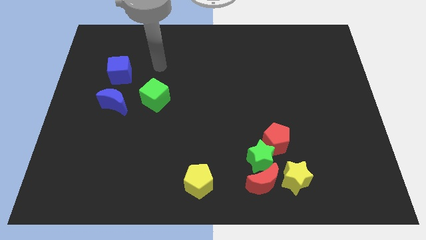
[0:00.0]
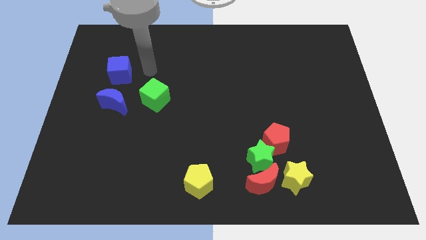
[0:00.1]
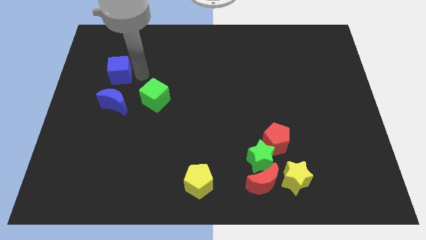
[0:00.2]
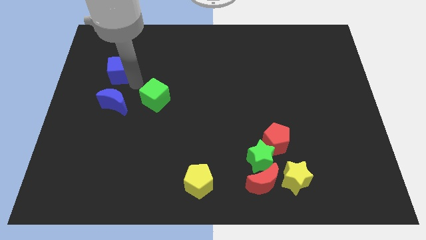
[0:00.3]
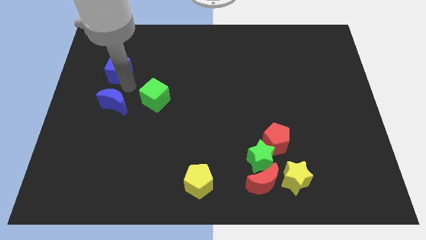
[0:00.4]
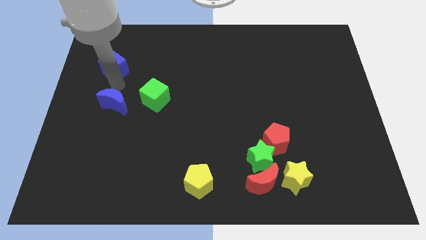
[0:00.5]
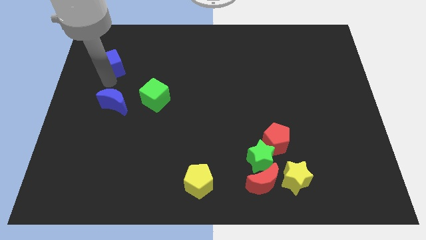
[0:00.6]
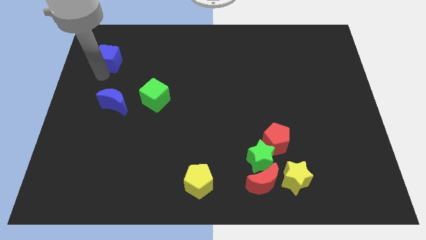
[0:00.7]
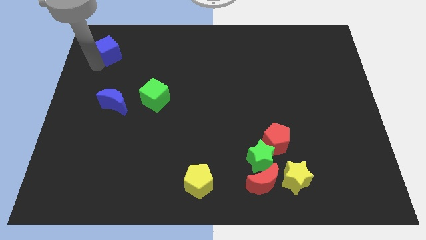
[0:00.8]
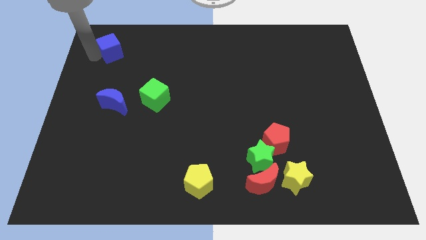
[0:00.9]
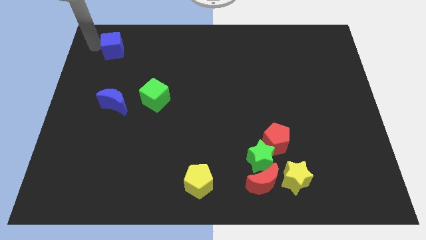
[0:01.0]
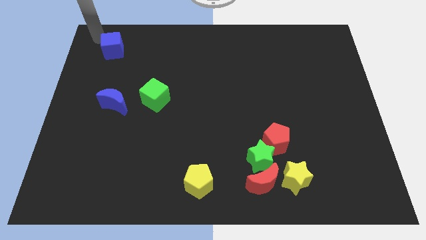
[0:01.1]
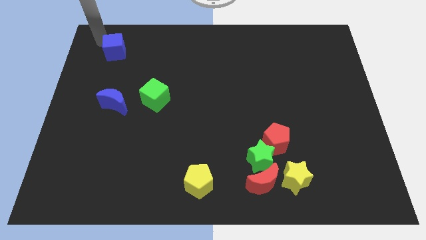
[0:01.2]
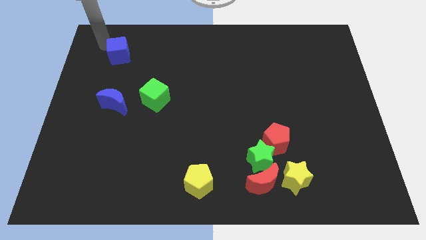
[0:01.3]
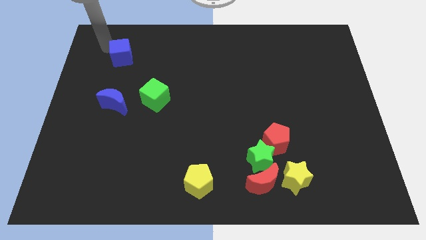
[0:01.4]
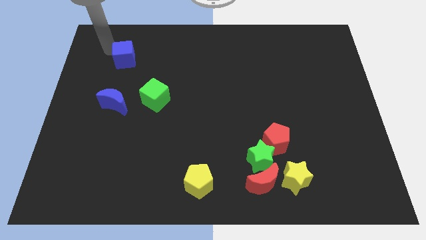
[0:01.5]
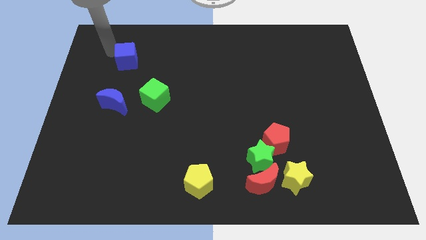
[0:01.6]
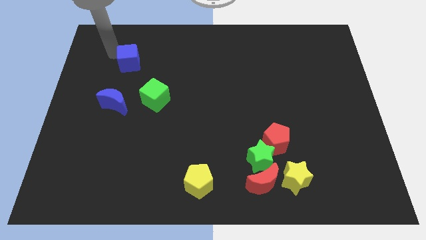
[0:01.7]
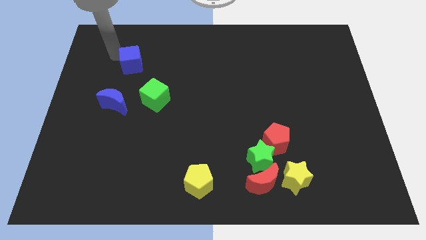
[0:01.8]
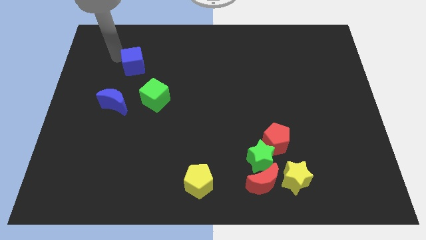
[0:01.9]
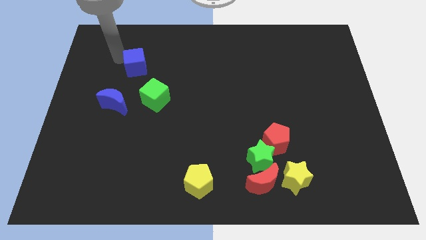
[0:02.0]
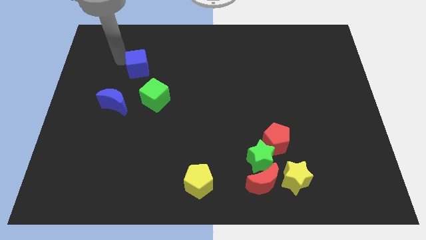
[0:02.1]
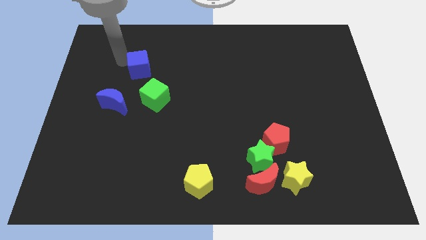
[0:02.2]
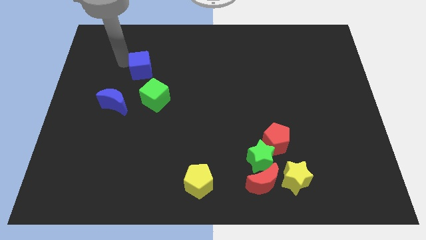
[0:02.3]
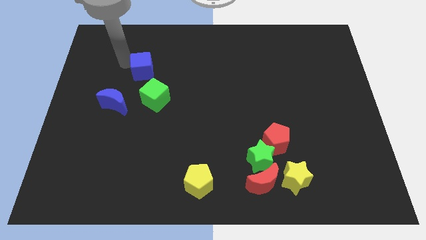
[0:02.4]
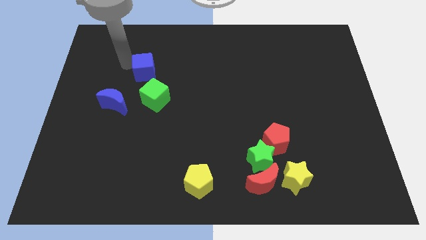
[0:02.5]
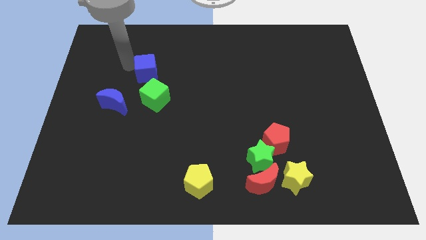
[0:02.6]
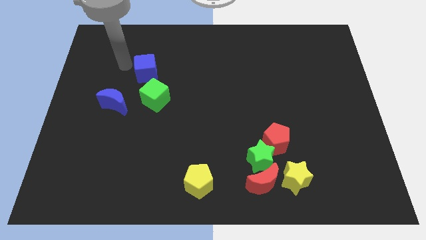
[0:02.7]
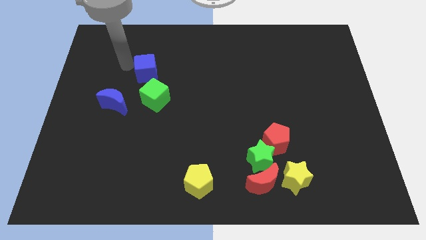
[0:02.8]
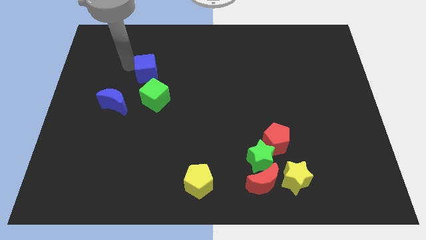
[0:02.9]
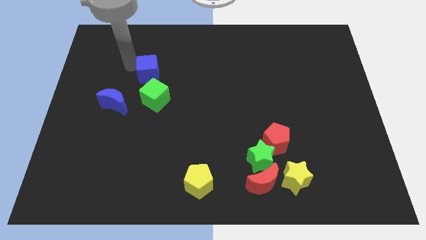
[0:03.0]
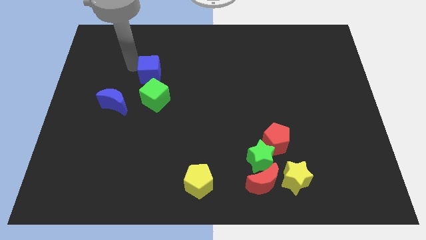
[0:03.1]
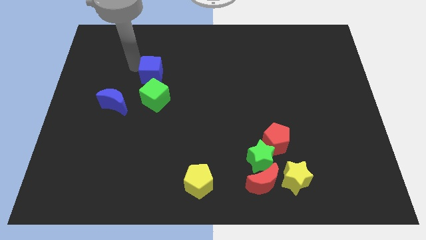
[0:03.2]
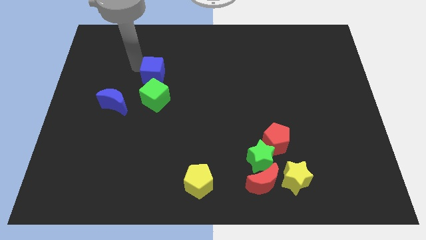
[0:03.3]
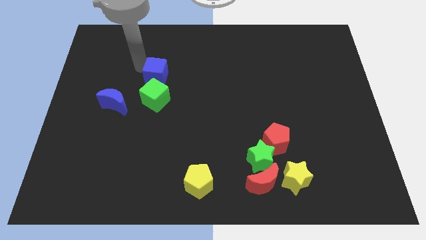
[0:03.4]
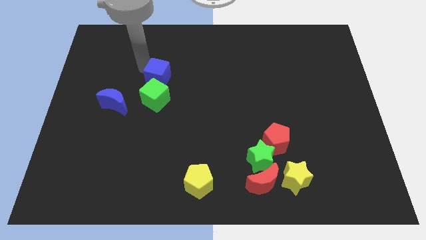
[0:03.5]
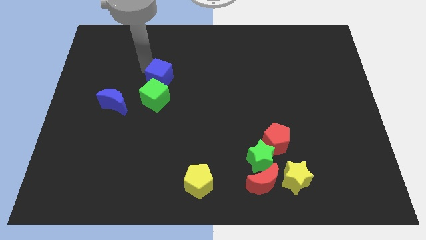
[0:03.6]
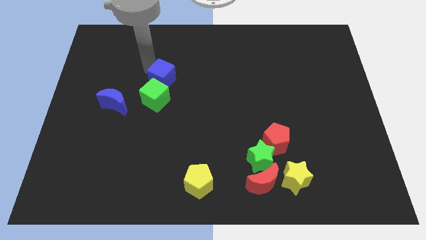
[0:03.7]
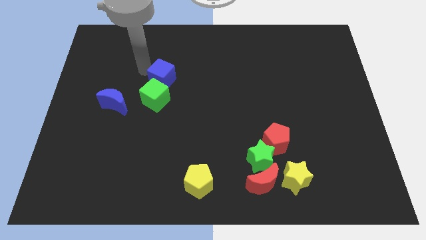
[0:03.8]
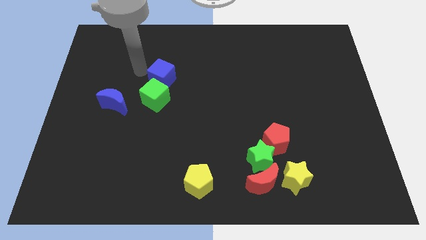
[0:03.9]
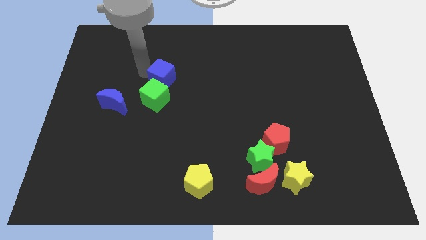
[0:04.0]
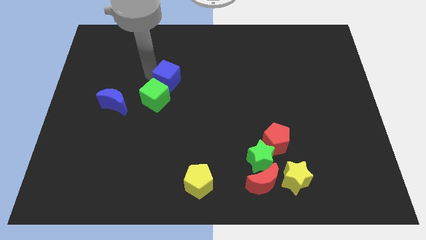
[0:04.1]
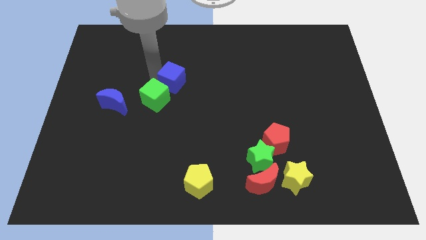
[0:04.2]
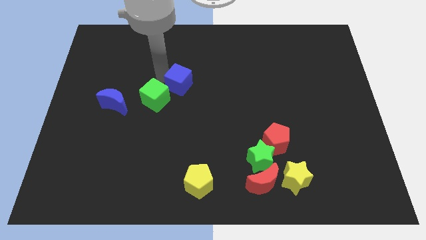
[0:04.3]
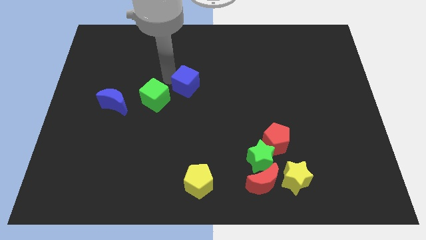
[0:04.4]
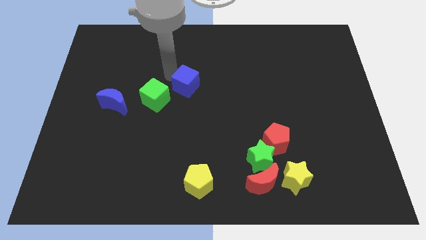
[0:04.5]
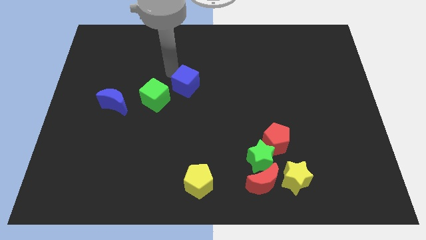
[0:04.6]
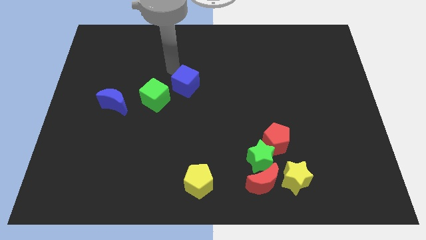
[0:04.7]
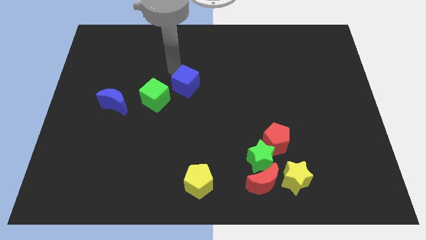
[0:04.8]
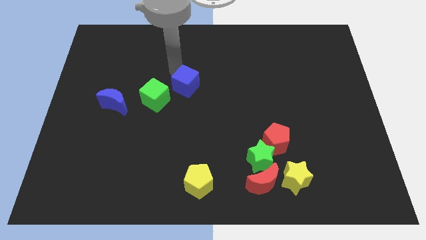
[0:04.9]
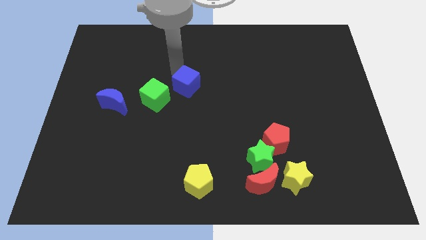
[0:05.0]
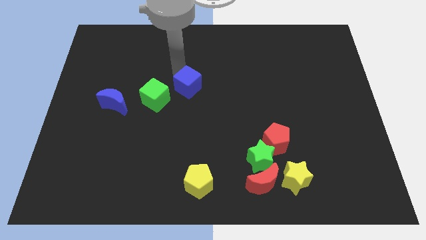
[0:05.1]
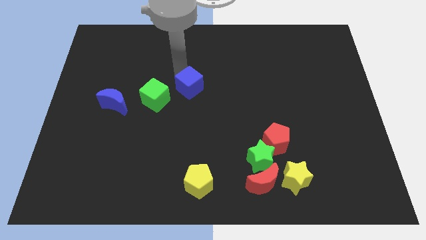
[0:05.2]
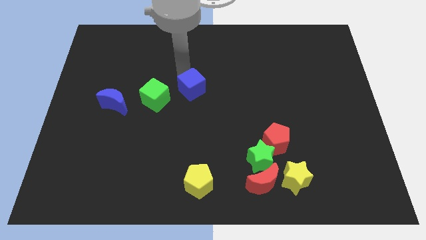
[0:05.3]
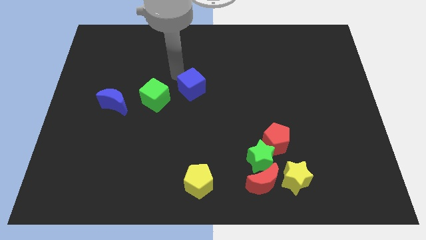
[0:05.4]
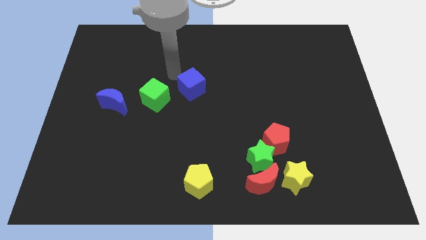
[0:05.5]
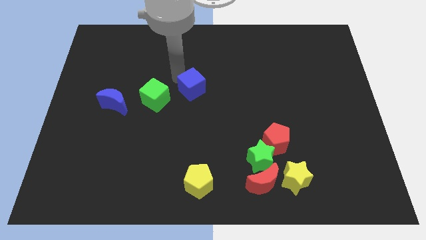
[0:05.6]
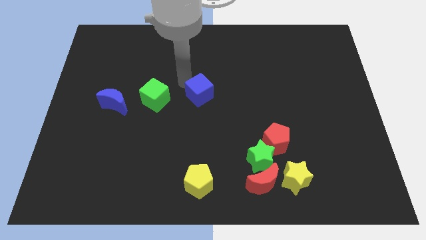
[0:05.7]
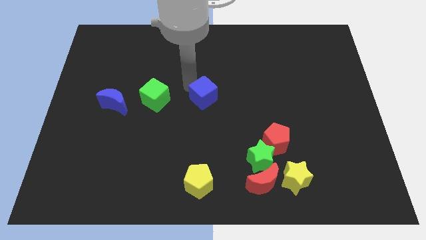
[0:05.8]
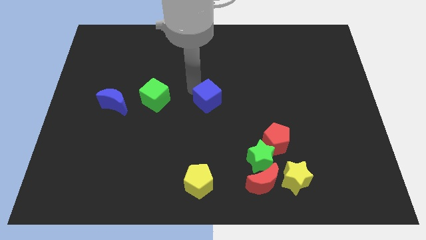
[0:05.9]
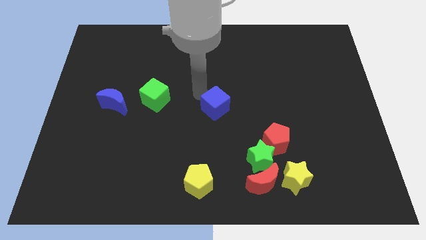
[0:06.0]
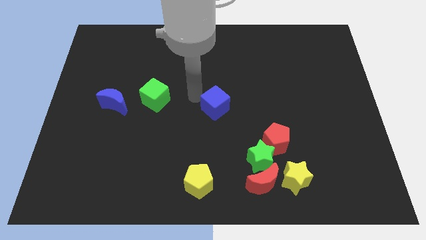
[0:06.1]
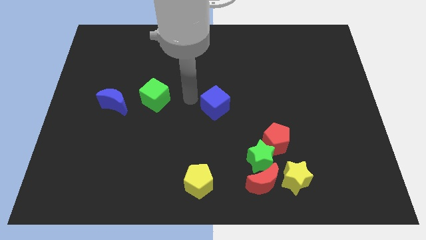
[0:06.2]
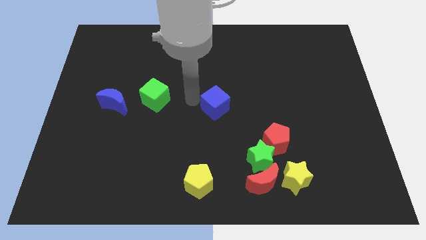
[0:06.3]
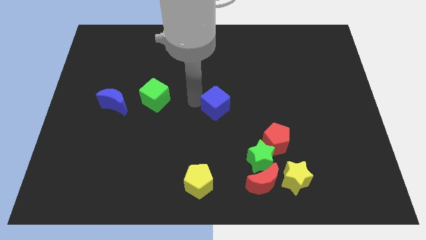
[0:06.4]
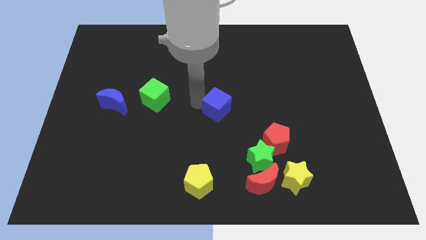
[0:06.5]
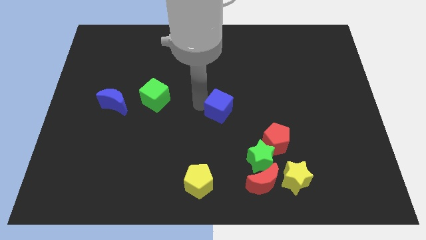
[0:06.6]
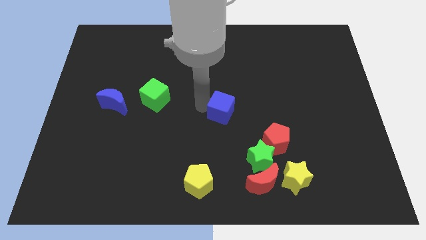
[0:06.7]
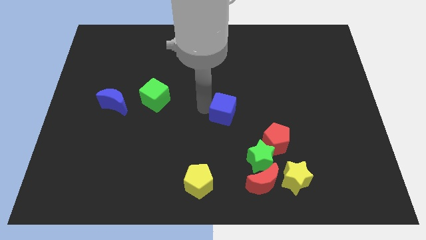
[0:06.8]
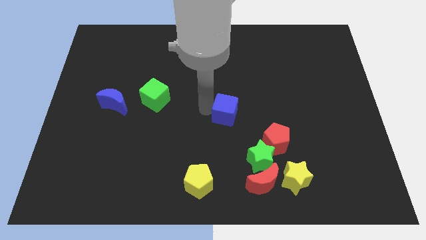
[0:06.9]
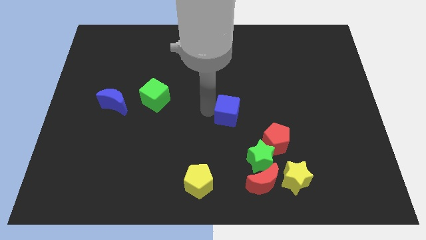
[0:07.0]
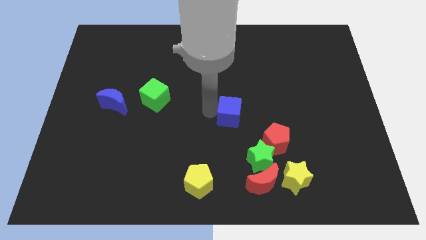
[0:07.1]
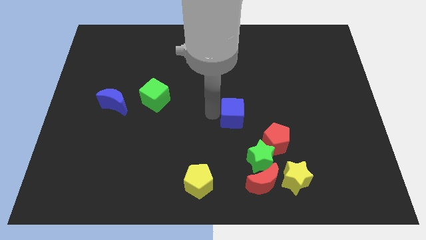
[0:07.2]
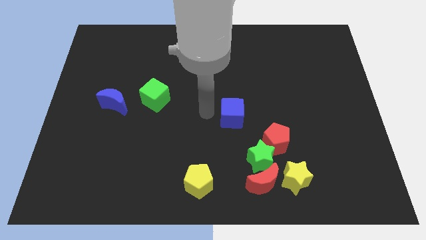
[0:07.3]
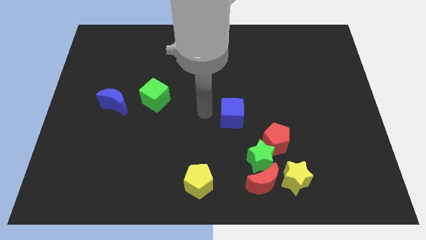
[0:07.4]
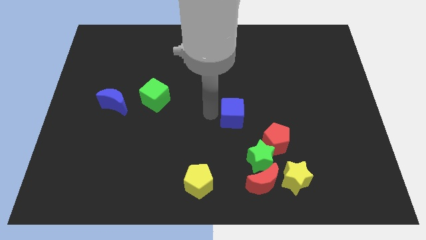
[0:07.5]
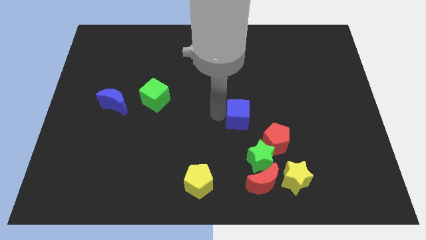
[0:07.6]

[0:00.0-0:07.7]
slide the blue cube above the green star

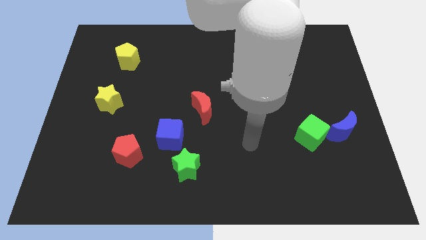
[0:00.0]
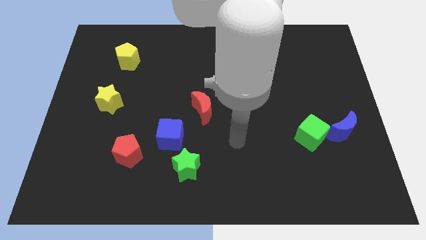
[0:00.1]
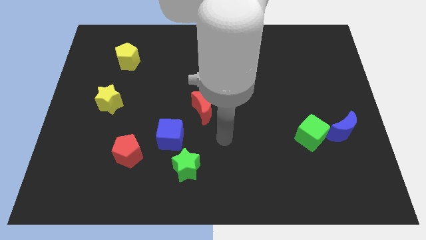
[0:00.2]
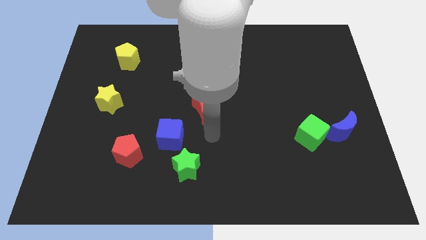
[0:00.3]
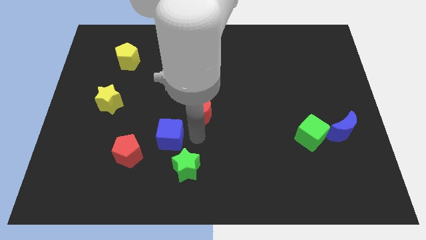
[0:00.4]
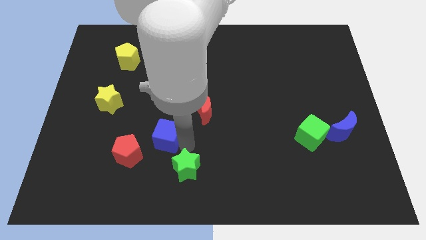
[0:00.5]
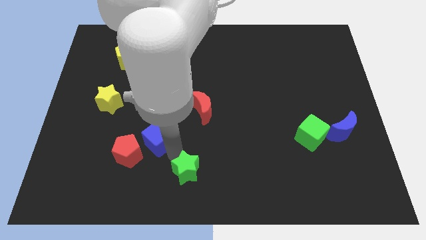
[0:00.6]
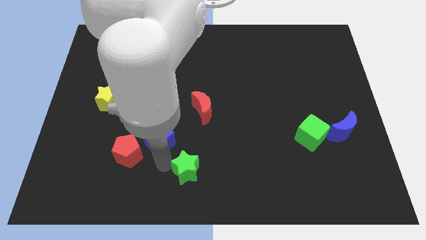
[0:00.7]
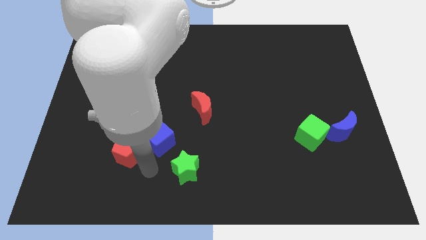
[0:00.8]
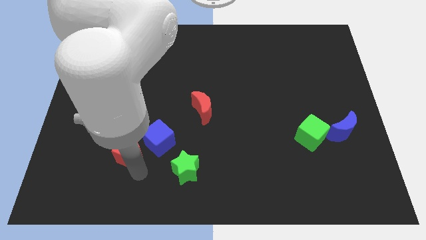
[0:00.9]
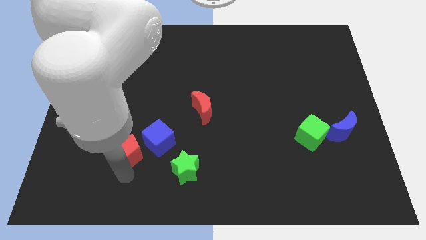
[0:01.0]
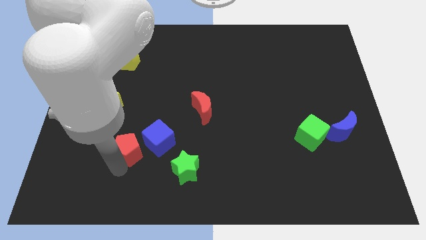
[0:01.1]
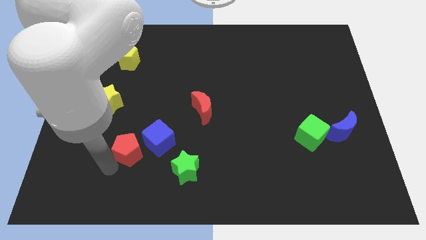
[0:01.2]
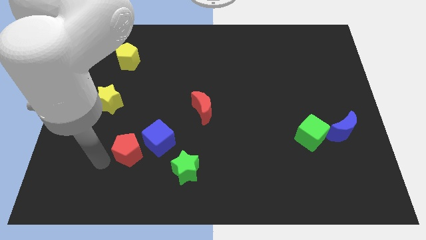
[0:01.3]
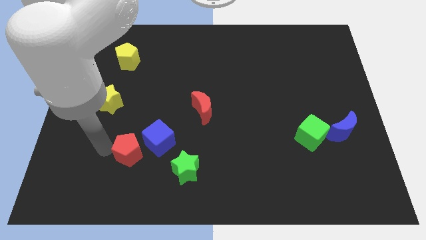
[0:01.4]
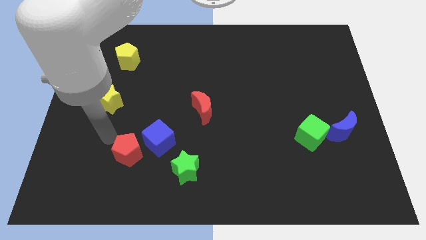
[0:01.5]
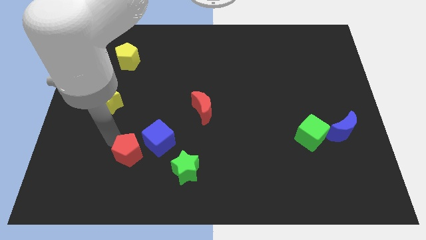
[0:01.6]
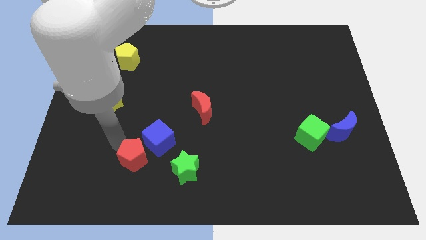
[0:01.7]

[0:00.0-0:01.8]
push the red pentagon below the blue cube
